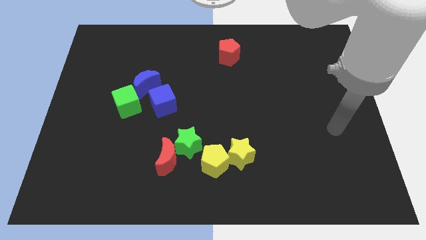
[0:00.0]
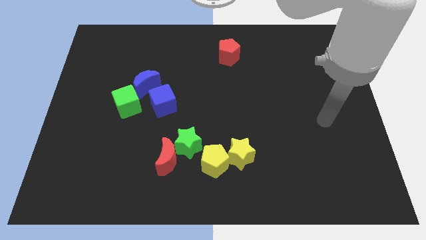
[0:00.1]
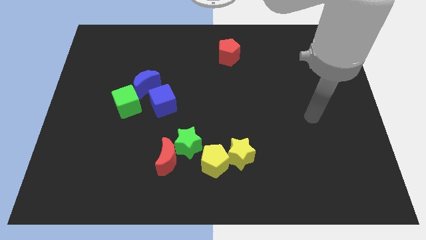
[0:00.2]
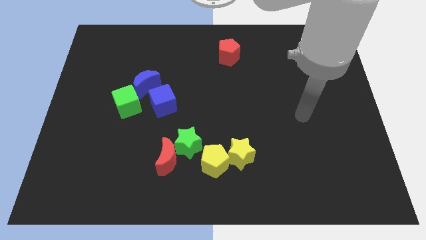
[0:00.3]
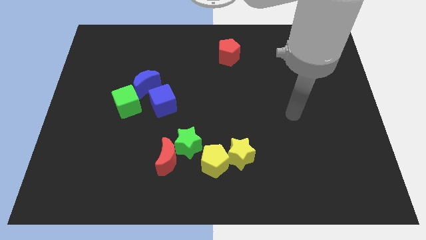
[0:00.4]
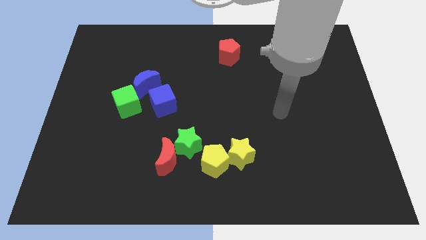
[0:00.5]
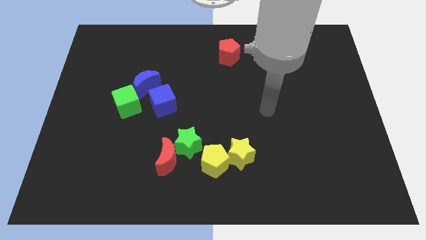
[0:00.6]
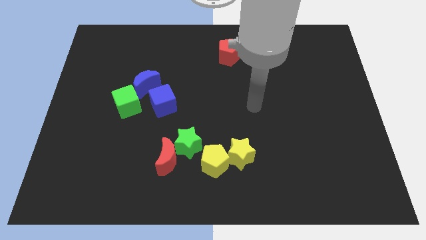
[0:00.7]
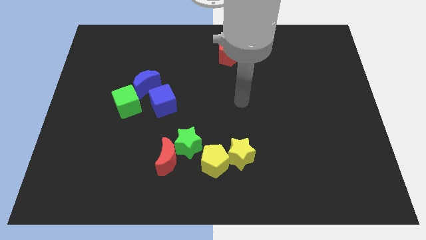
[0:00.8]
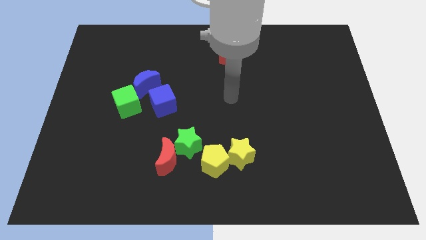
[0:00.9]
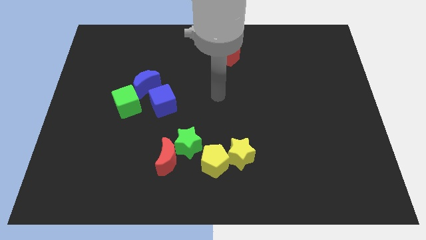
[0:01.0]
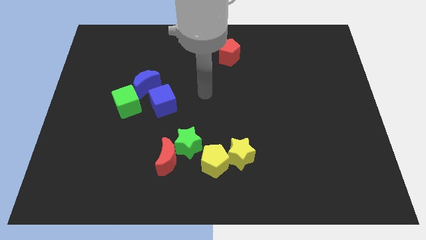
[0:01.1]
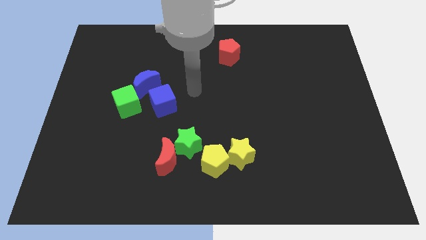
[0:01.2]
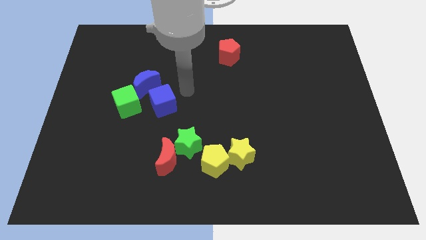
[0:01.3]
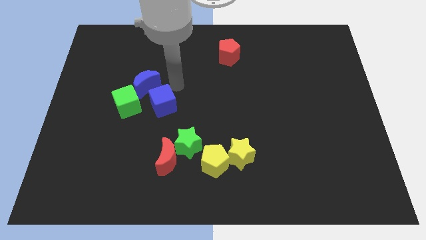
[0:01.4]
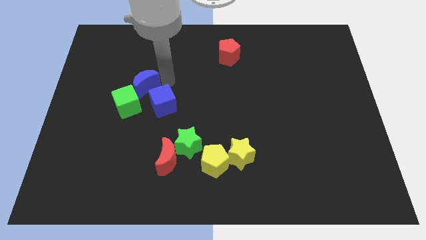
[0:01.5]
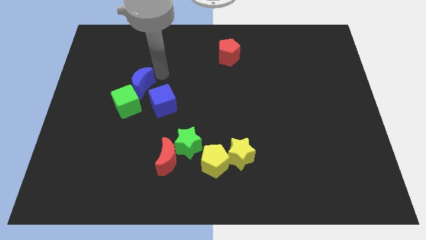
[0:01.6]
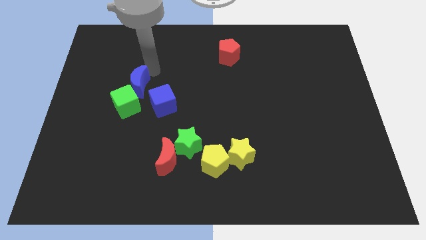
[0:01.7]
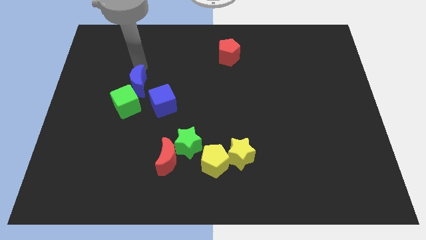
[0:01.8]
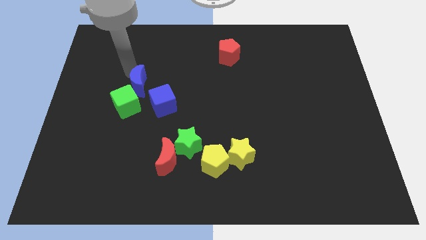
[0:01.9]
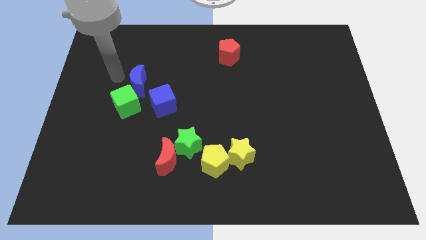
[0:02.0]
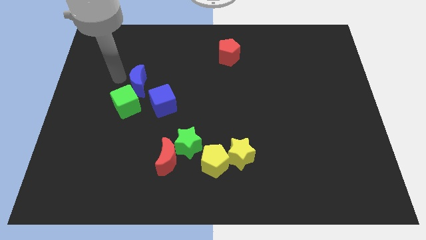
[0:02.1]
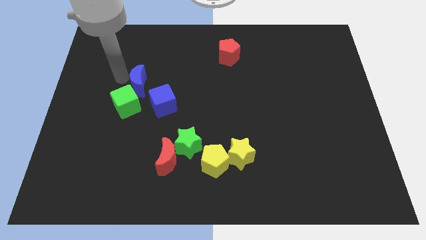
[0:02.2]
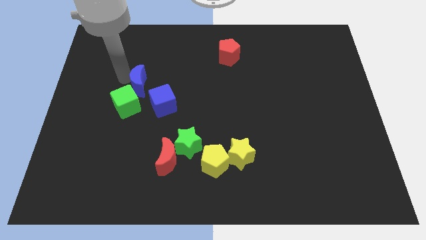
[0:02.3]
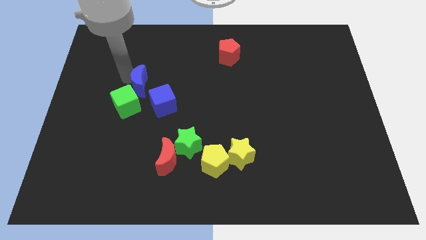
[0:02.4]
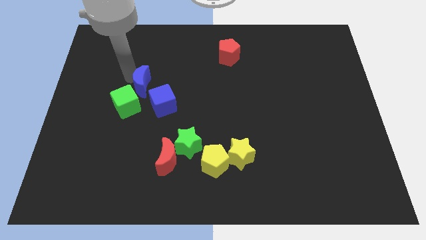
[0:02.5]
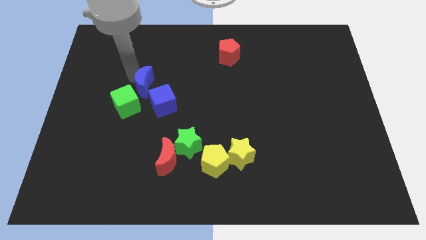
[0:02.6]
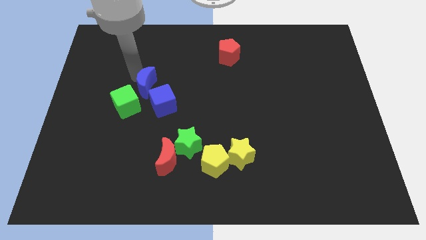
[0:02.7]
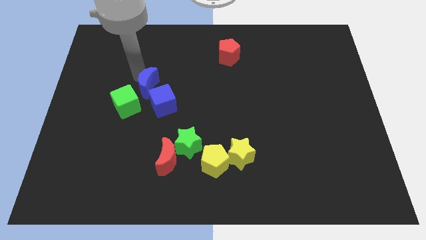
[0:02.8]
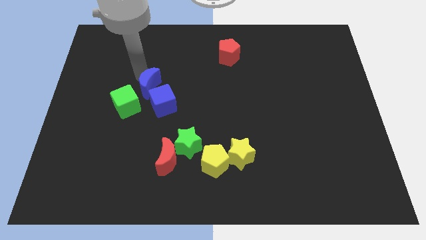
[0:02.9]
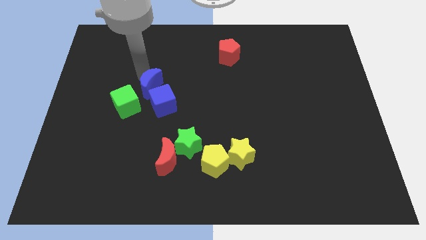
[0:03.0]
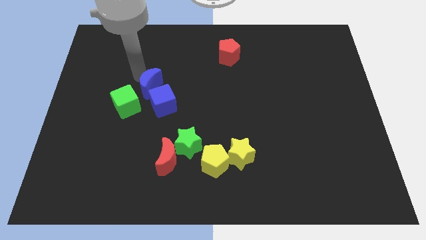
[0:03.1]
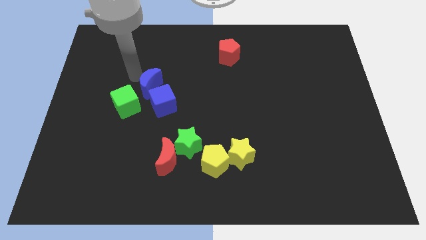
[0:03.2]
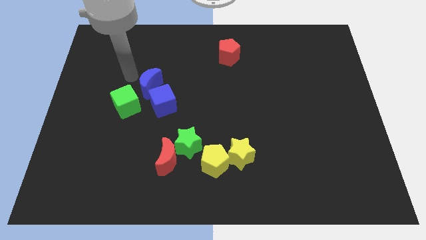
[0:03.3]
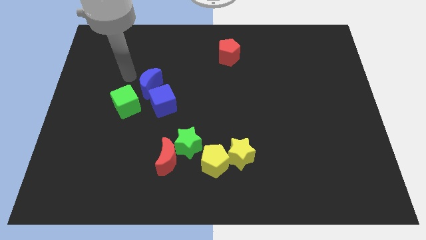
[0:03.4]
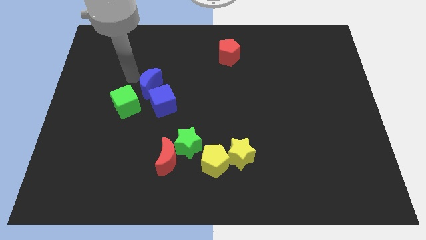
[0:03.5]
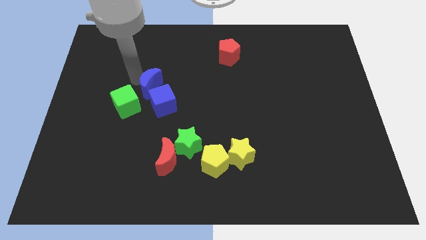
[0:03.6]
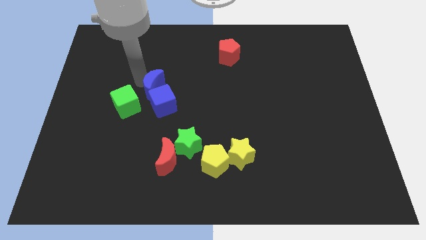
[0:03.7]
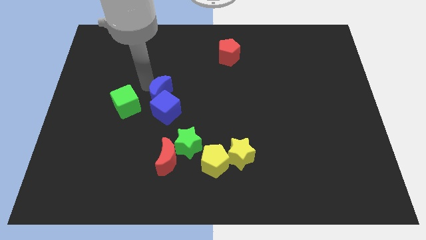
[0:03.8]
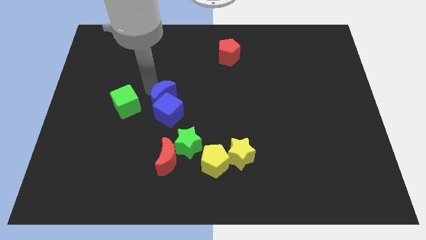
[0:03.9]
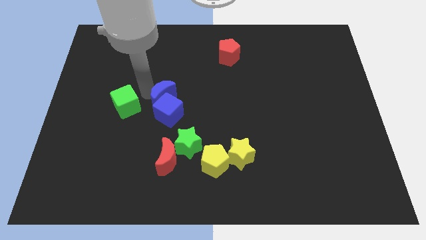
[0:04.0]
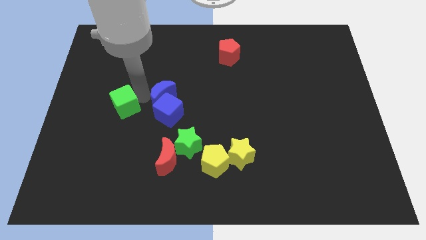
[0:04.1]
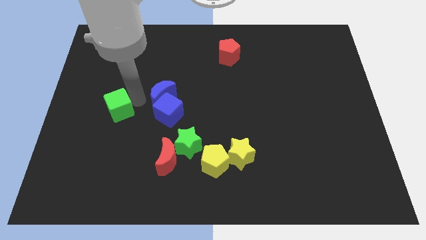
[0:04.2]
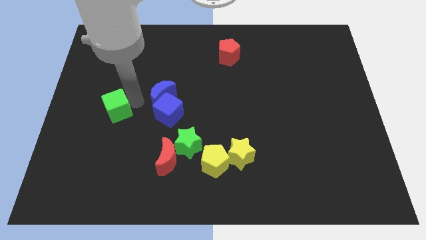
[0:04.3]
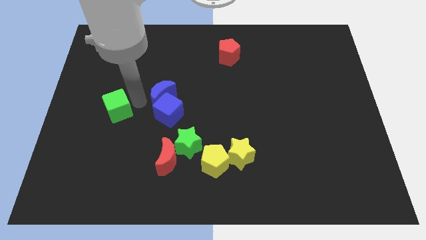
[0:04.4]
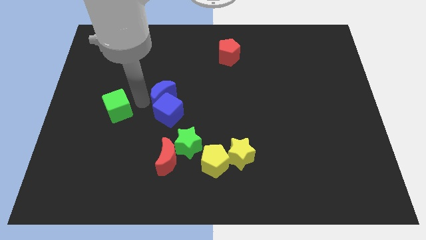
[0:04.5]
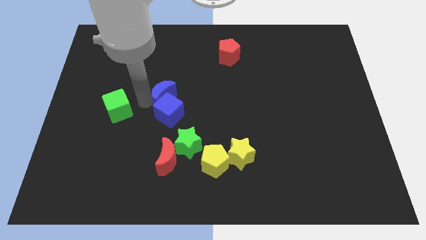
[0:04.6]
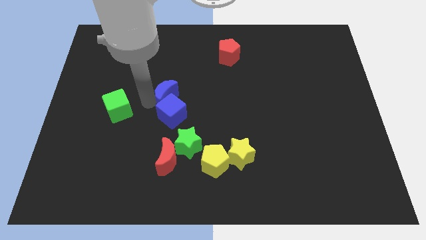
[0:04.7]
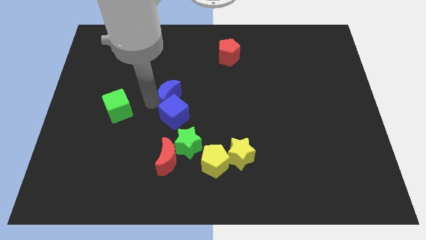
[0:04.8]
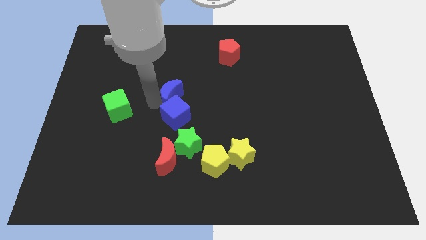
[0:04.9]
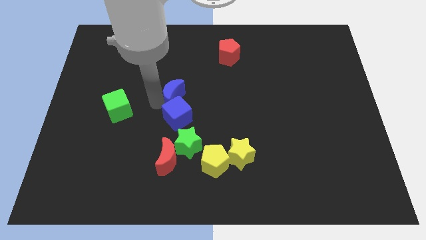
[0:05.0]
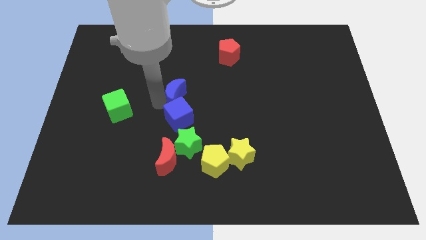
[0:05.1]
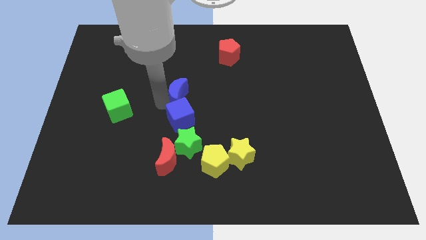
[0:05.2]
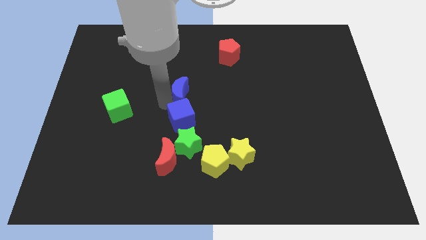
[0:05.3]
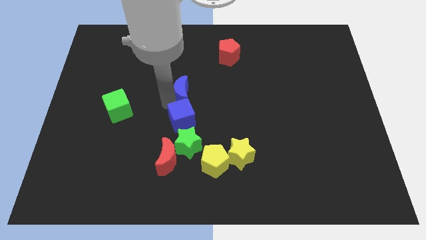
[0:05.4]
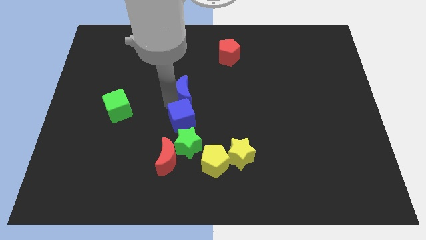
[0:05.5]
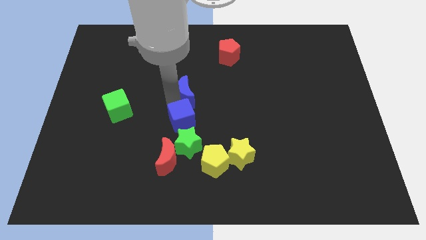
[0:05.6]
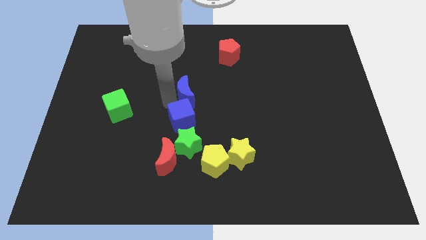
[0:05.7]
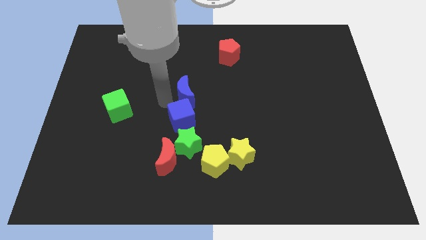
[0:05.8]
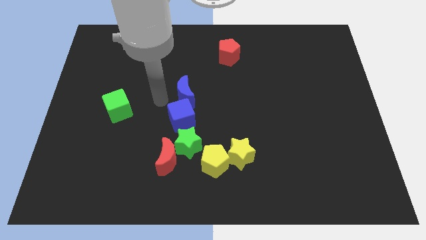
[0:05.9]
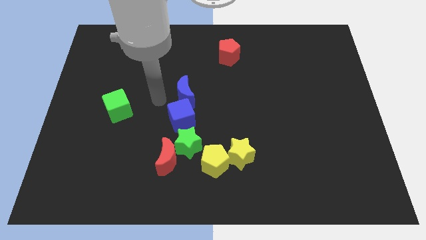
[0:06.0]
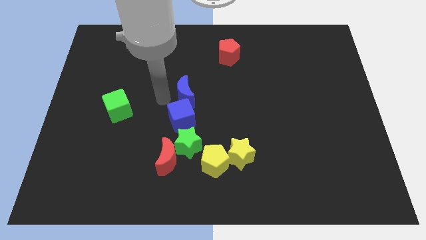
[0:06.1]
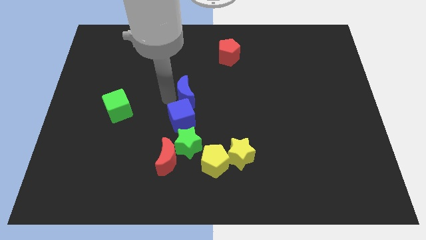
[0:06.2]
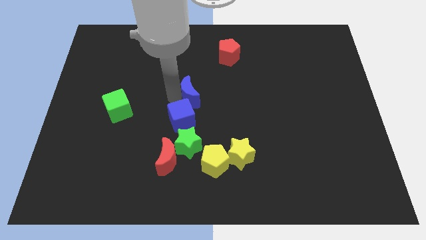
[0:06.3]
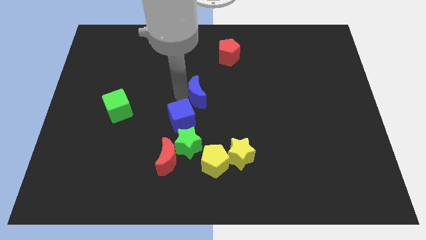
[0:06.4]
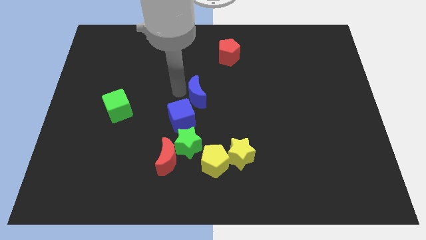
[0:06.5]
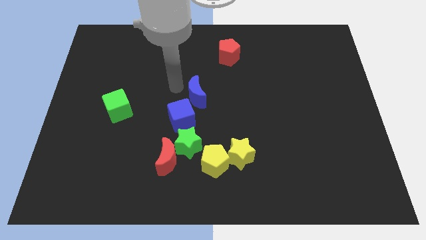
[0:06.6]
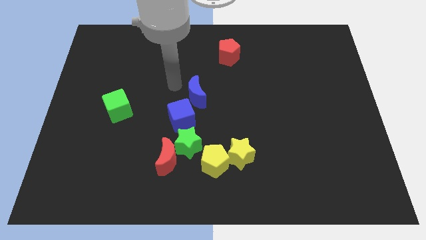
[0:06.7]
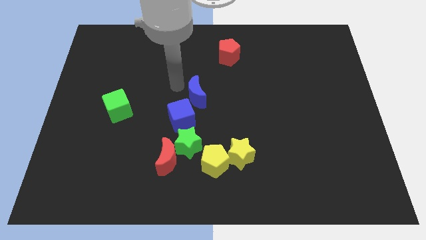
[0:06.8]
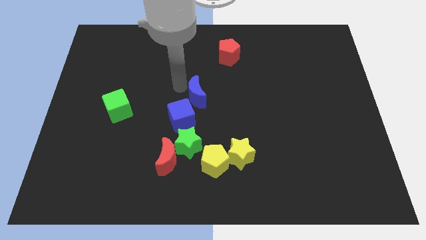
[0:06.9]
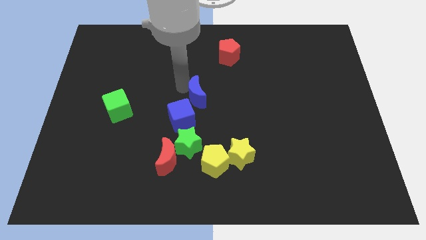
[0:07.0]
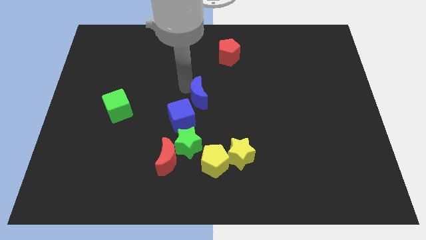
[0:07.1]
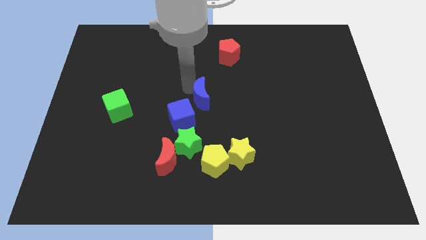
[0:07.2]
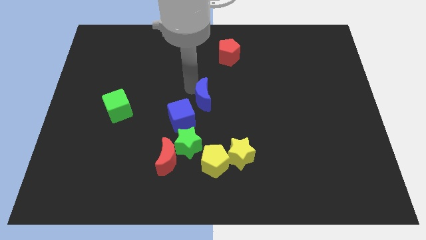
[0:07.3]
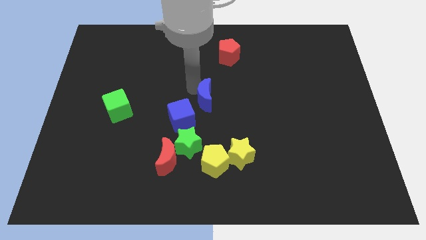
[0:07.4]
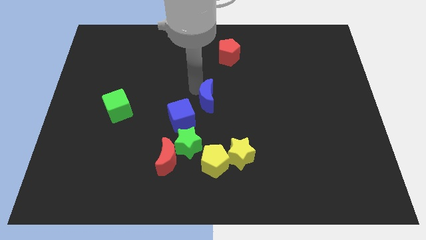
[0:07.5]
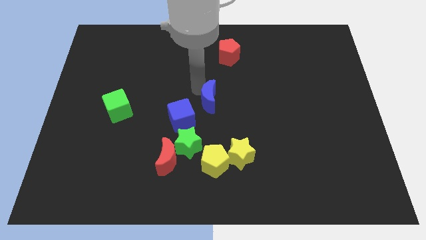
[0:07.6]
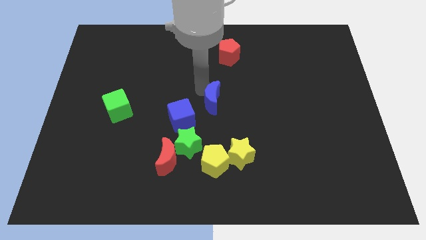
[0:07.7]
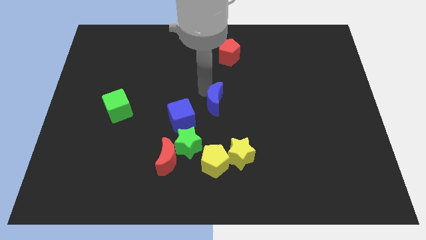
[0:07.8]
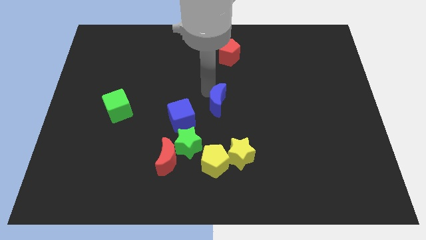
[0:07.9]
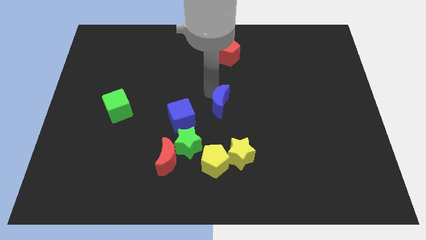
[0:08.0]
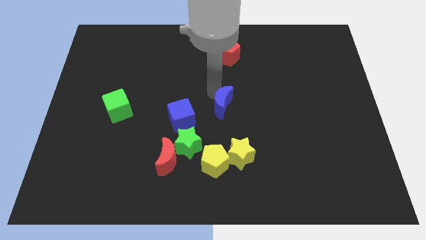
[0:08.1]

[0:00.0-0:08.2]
move the blue moon to the top side of the yellow star
